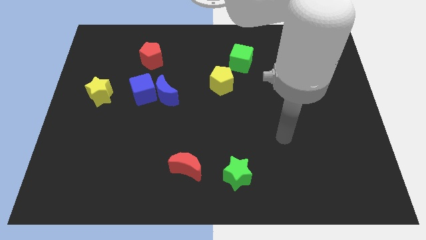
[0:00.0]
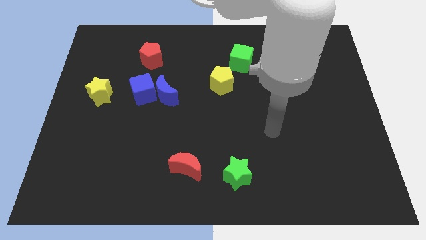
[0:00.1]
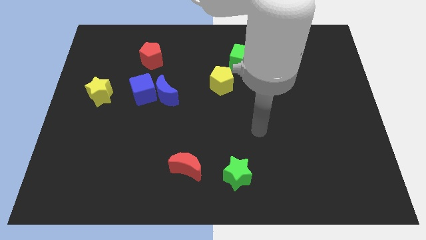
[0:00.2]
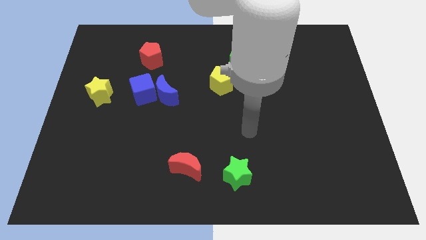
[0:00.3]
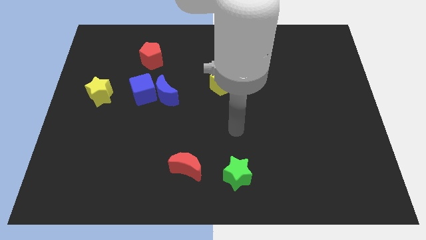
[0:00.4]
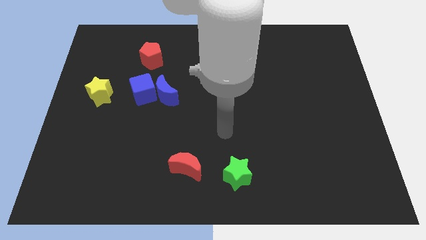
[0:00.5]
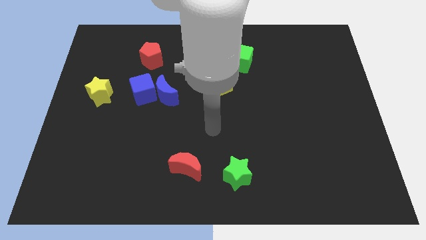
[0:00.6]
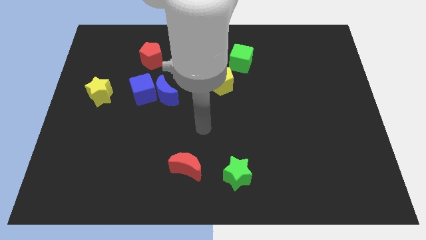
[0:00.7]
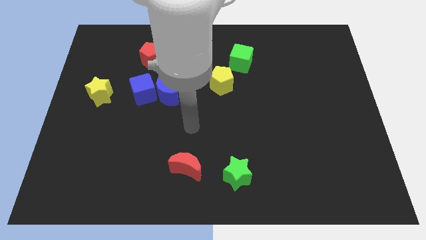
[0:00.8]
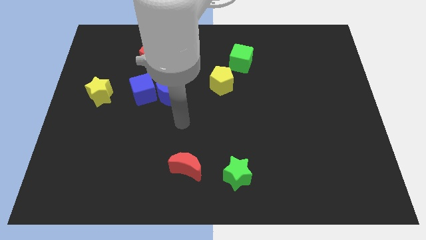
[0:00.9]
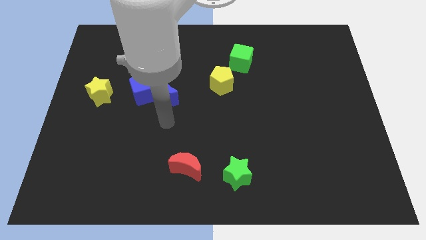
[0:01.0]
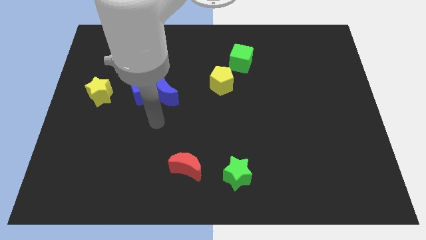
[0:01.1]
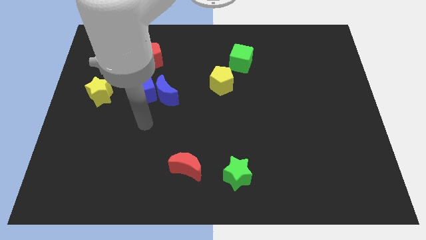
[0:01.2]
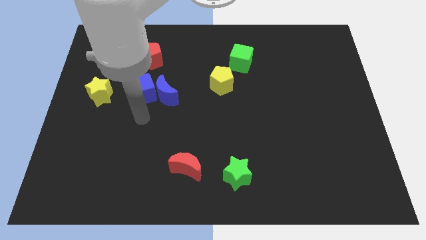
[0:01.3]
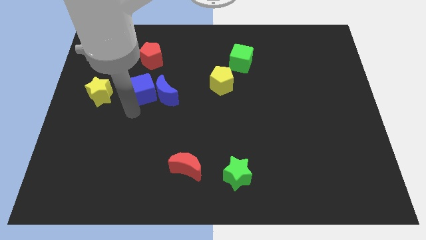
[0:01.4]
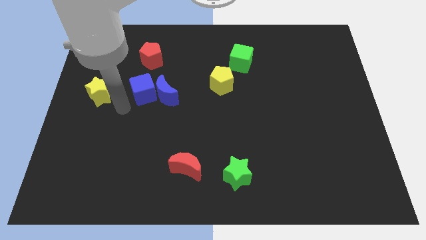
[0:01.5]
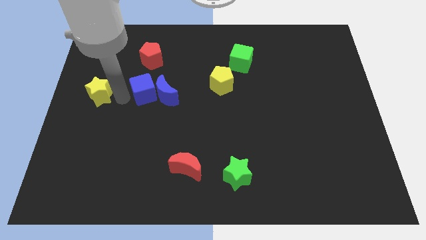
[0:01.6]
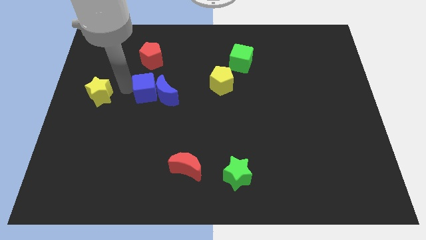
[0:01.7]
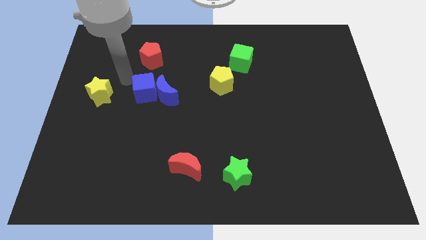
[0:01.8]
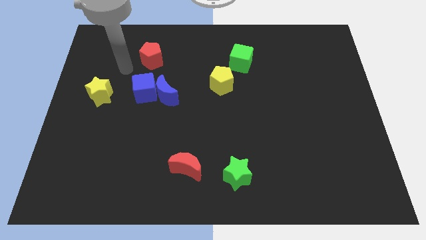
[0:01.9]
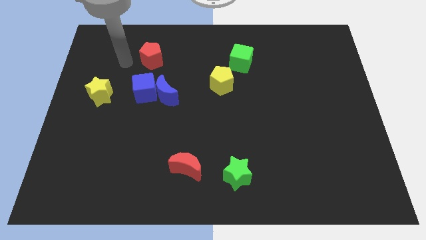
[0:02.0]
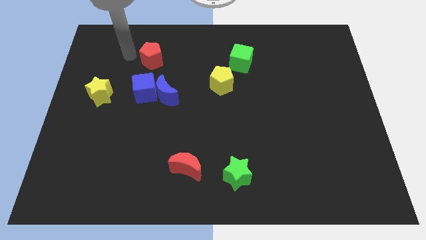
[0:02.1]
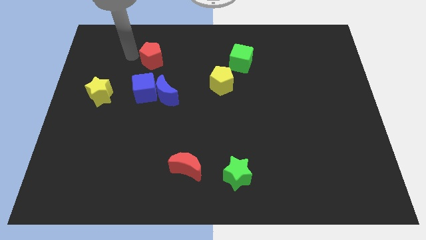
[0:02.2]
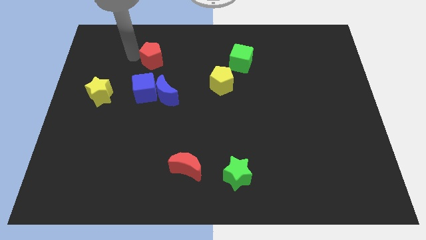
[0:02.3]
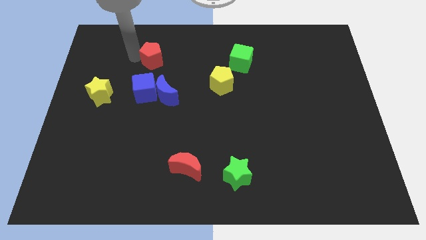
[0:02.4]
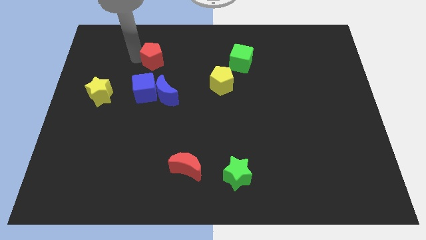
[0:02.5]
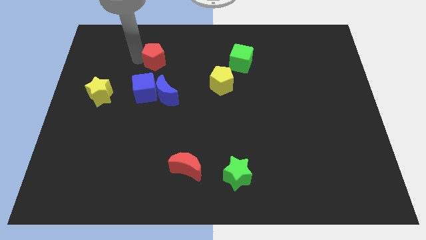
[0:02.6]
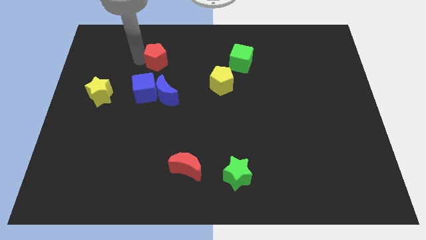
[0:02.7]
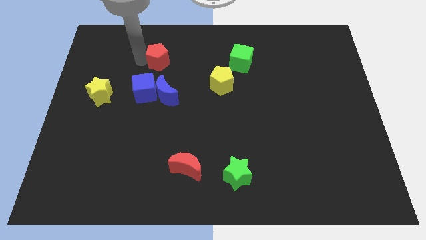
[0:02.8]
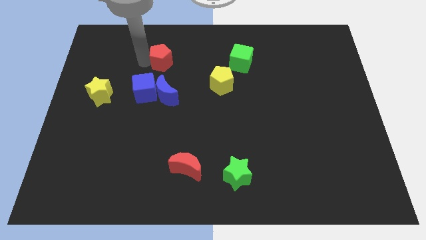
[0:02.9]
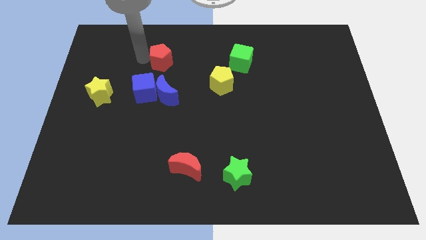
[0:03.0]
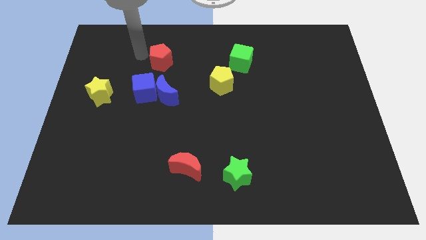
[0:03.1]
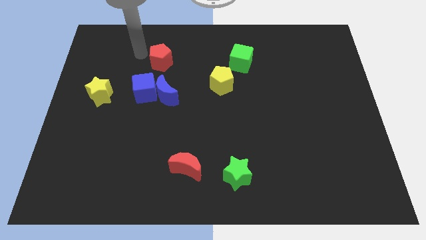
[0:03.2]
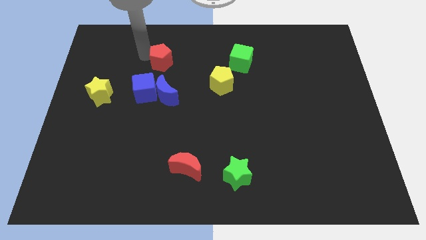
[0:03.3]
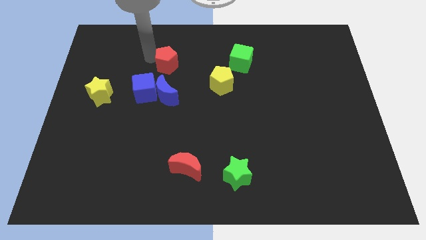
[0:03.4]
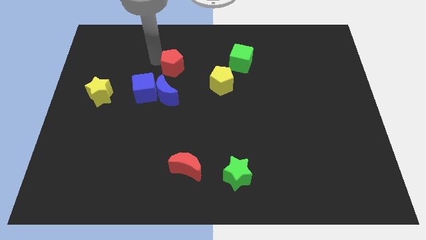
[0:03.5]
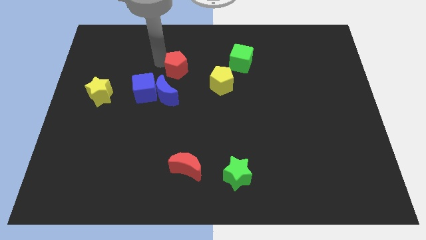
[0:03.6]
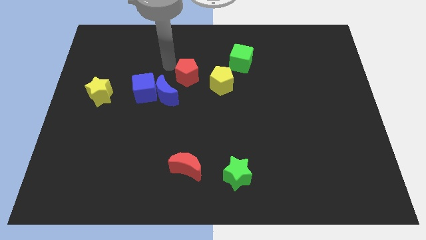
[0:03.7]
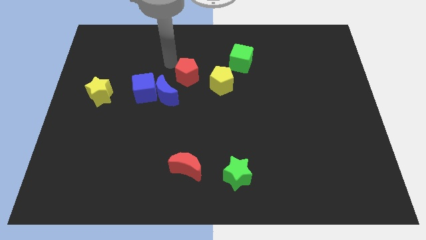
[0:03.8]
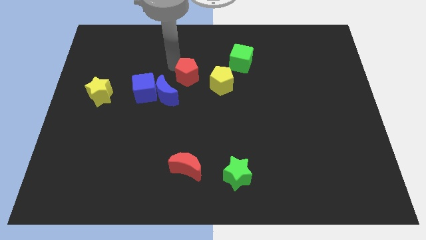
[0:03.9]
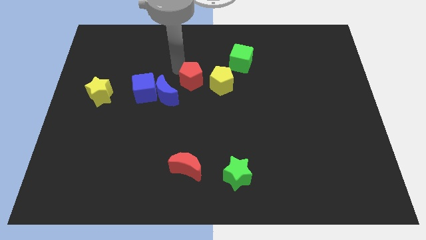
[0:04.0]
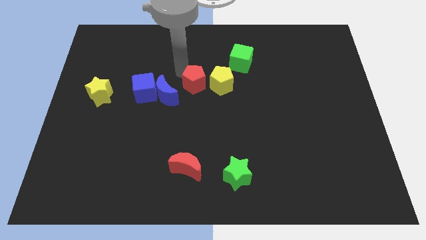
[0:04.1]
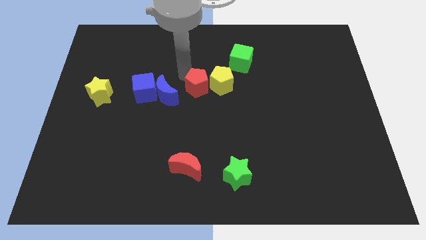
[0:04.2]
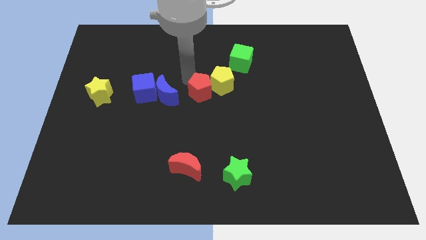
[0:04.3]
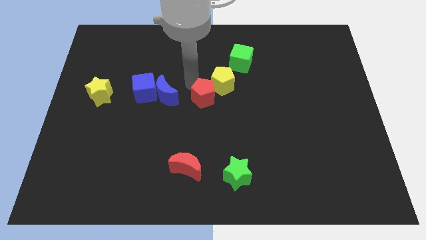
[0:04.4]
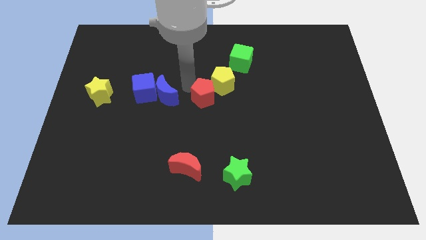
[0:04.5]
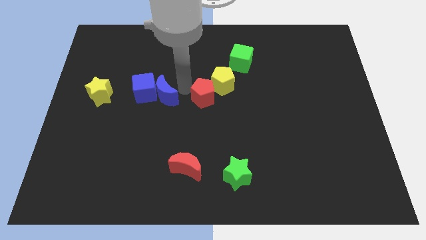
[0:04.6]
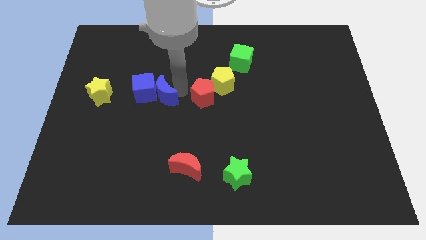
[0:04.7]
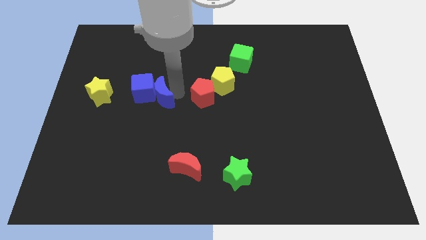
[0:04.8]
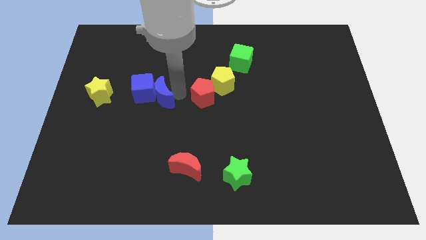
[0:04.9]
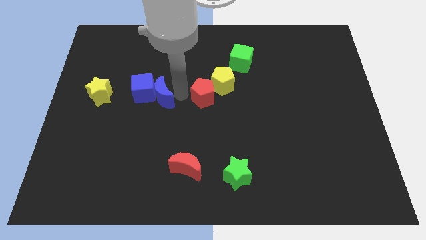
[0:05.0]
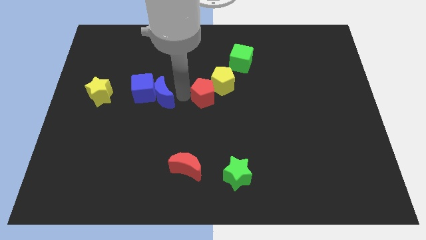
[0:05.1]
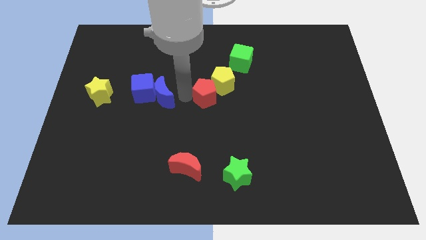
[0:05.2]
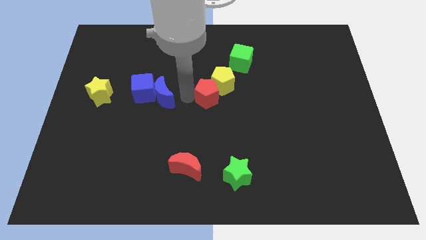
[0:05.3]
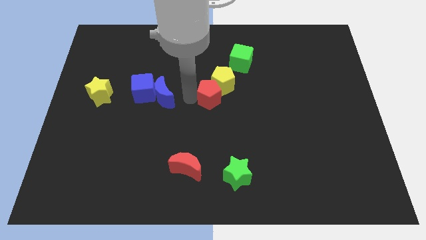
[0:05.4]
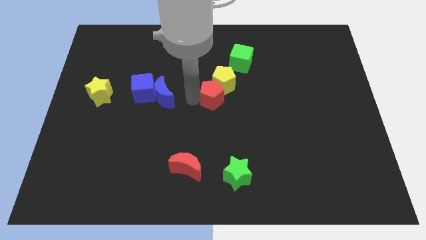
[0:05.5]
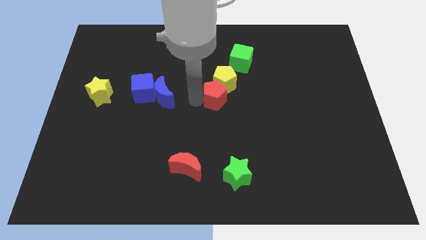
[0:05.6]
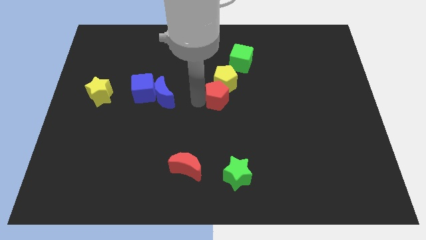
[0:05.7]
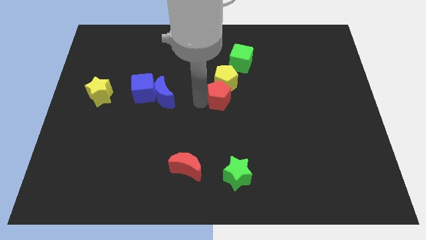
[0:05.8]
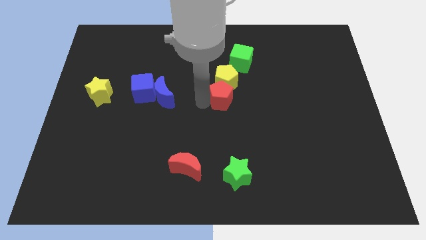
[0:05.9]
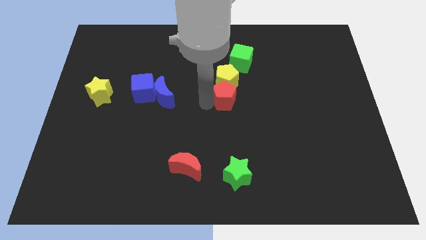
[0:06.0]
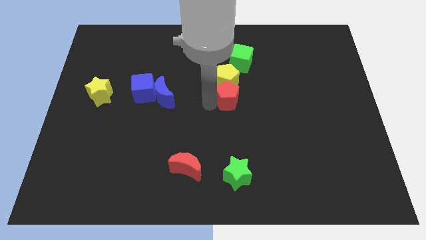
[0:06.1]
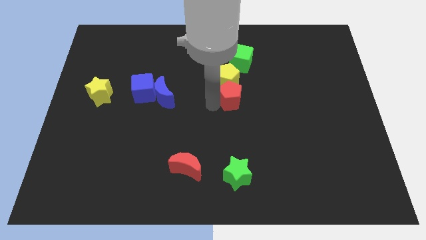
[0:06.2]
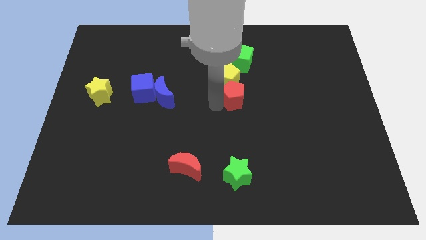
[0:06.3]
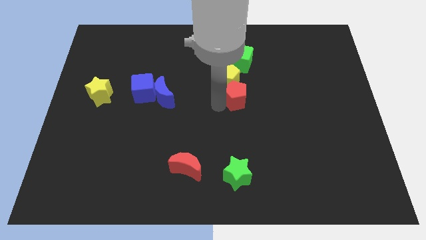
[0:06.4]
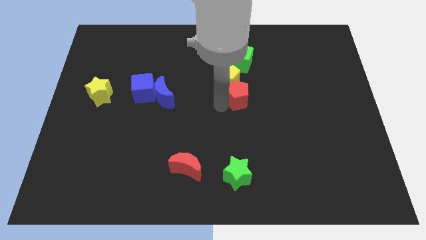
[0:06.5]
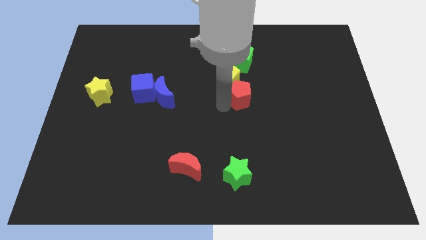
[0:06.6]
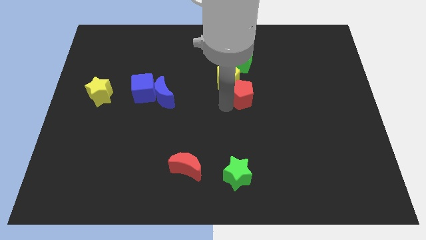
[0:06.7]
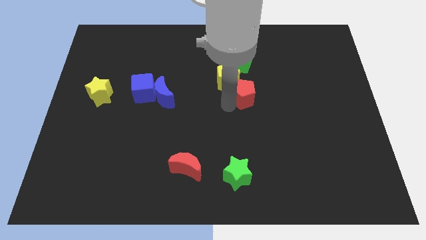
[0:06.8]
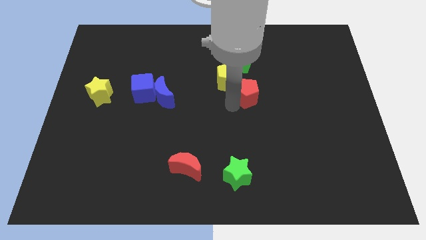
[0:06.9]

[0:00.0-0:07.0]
slide the red pentagon to the right side of the yellow pentagon

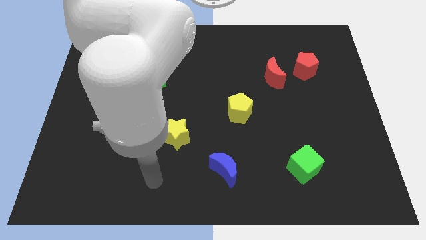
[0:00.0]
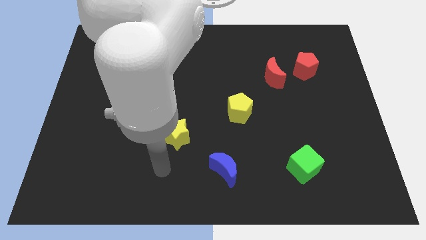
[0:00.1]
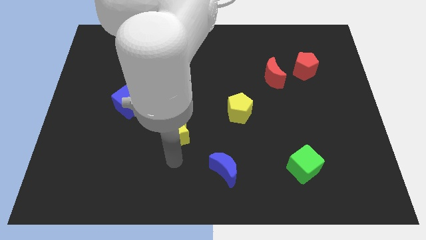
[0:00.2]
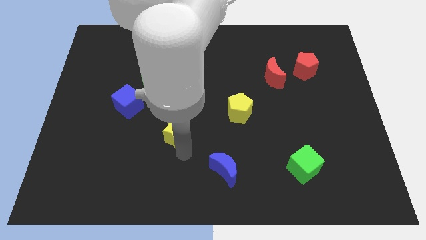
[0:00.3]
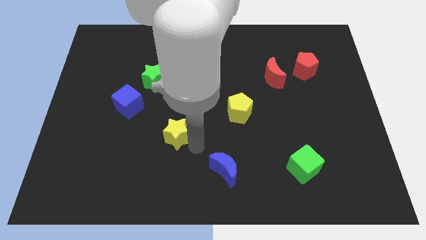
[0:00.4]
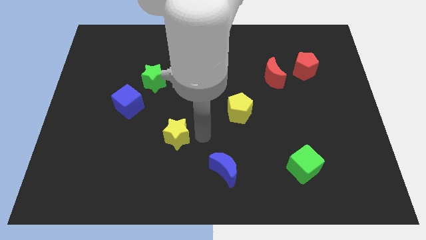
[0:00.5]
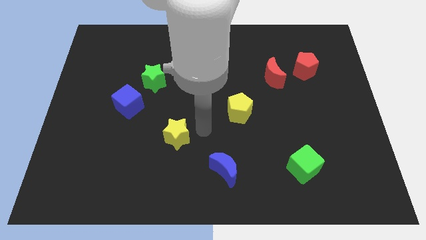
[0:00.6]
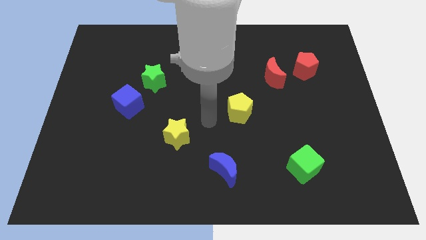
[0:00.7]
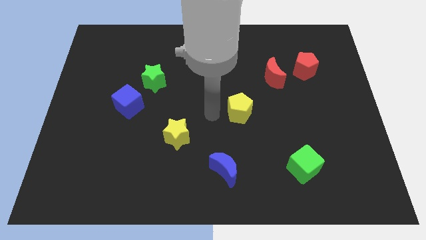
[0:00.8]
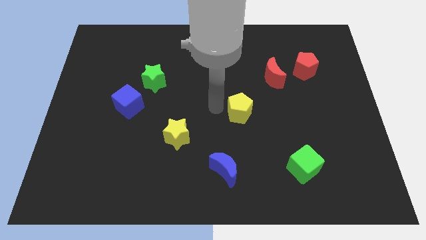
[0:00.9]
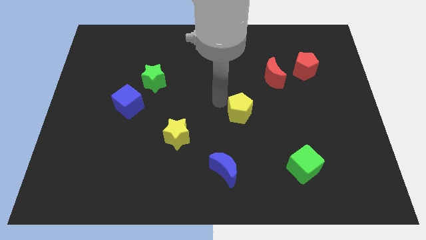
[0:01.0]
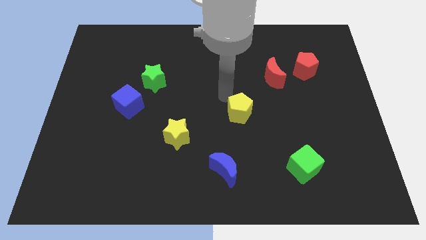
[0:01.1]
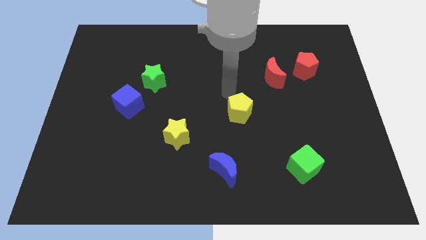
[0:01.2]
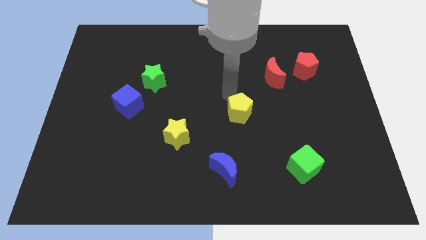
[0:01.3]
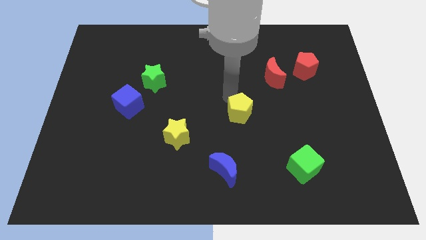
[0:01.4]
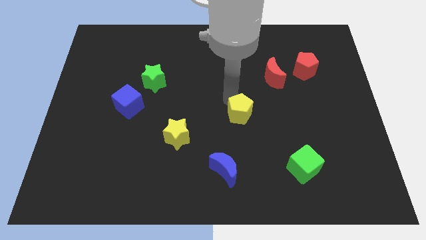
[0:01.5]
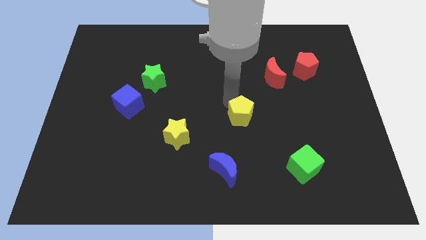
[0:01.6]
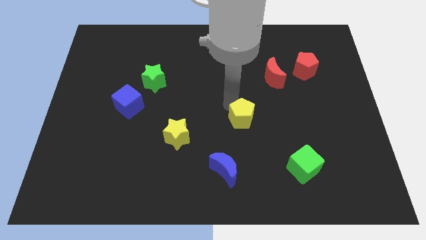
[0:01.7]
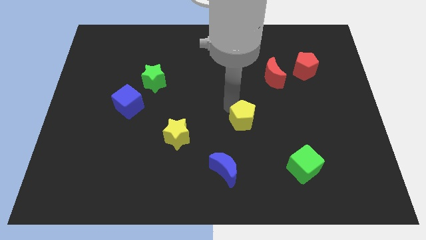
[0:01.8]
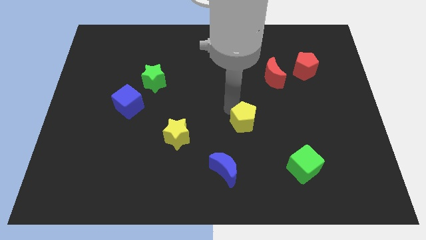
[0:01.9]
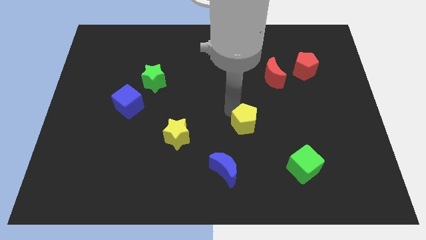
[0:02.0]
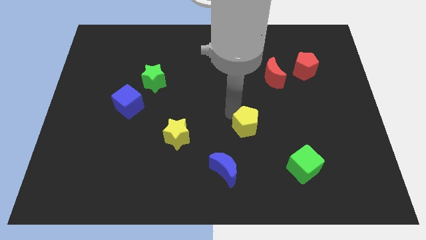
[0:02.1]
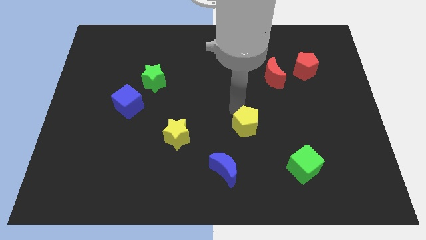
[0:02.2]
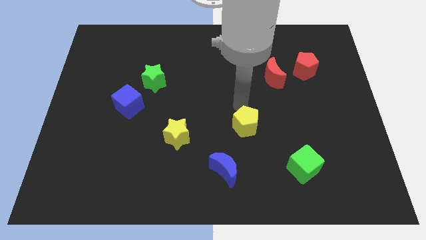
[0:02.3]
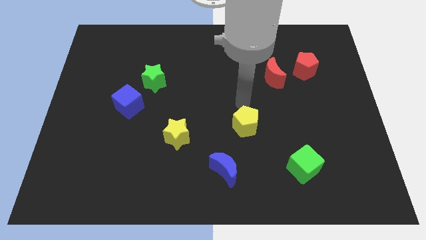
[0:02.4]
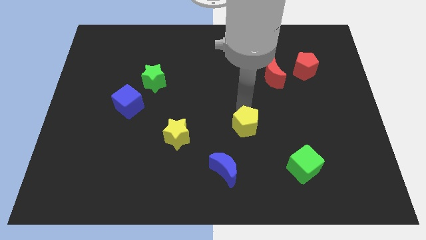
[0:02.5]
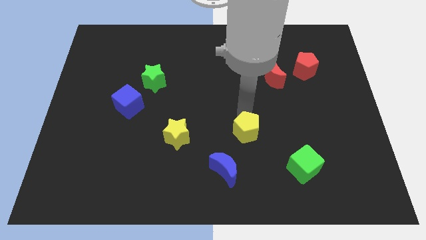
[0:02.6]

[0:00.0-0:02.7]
slide the yellow pentagon diagonally up and to the right of the blue moon
